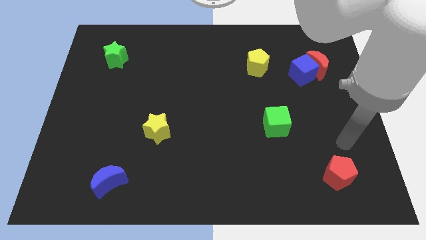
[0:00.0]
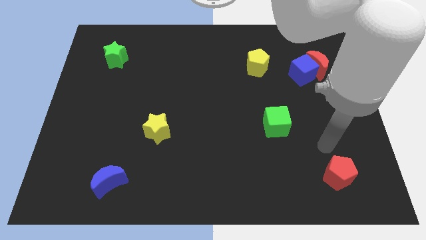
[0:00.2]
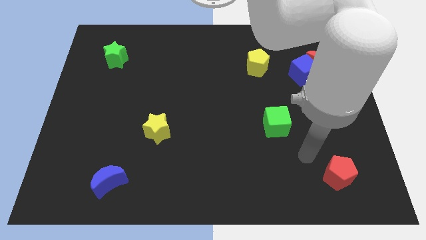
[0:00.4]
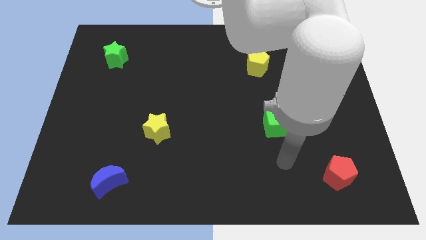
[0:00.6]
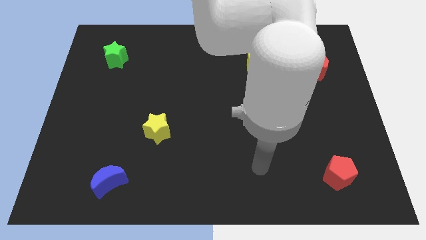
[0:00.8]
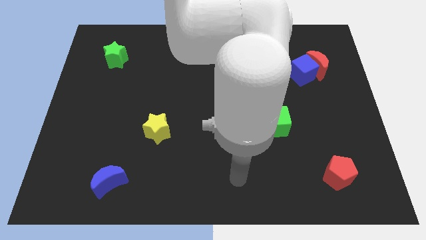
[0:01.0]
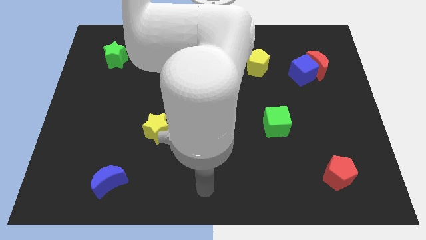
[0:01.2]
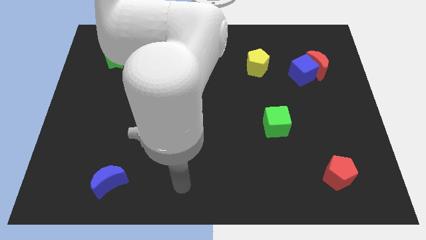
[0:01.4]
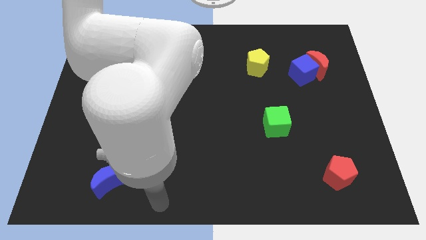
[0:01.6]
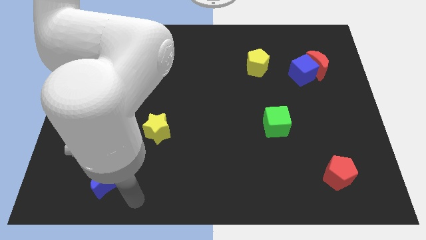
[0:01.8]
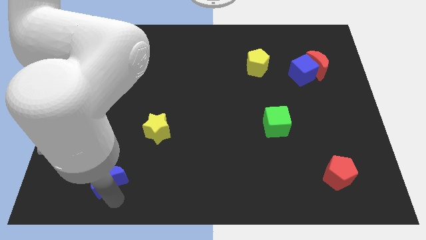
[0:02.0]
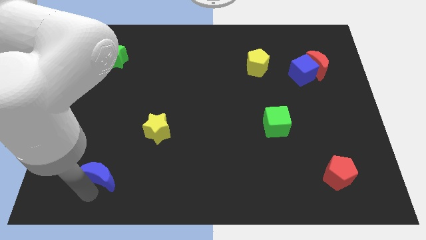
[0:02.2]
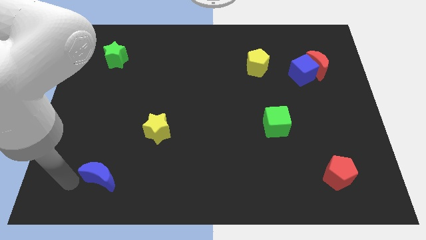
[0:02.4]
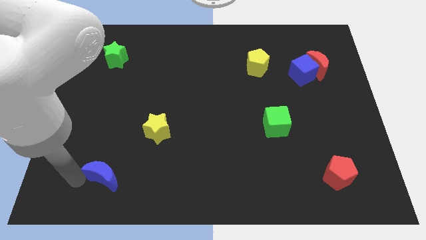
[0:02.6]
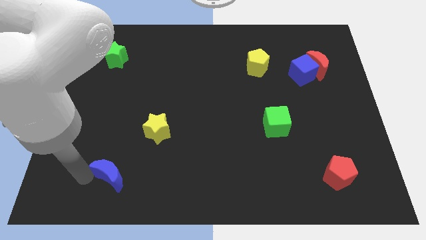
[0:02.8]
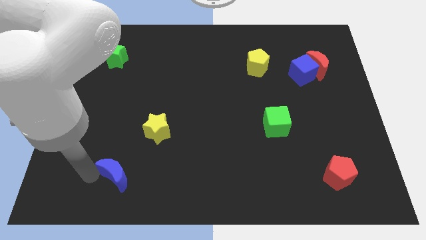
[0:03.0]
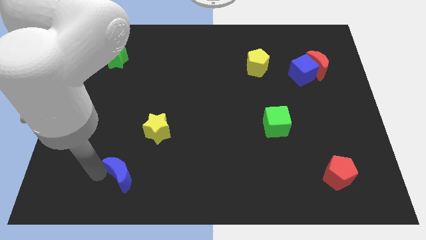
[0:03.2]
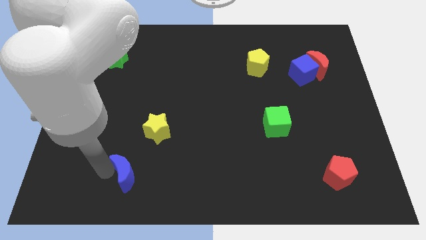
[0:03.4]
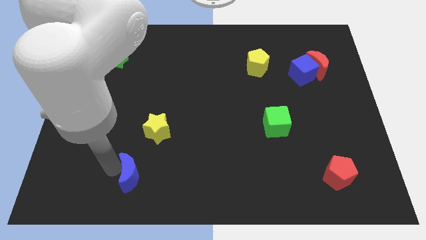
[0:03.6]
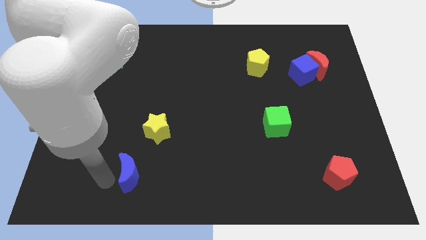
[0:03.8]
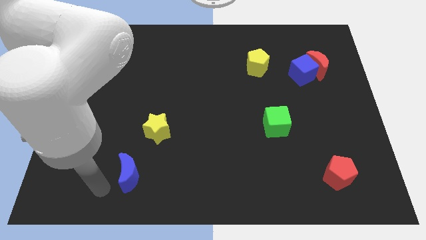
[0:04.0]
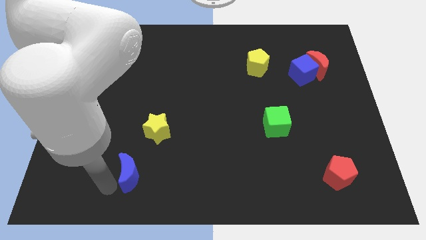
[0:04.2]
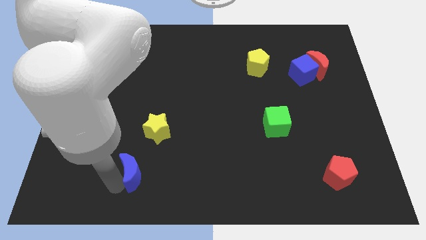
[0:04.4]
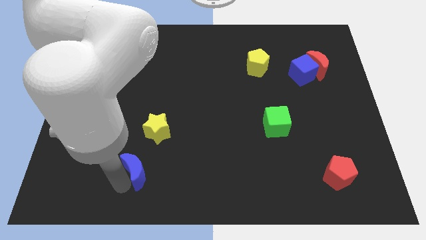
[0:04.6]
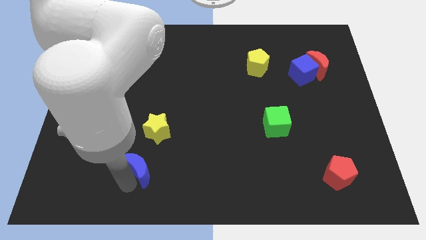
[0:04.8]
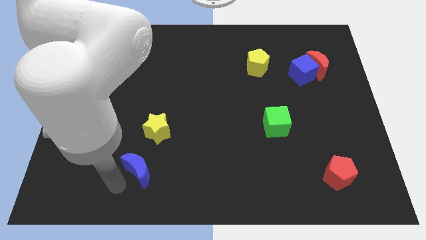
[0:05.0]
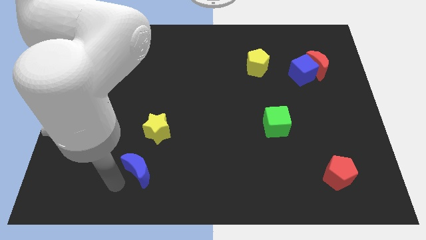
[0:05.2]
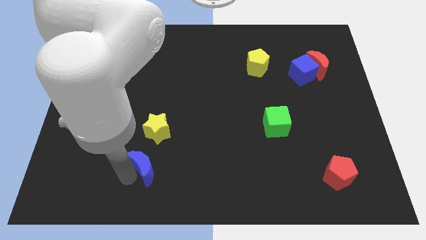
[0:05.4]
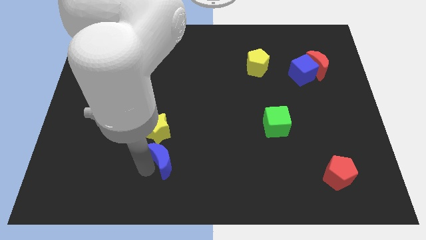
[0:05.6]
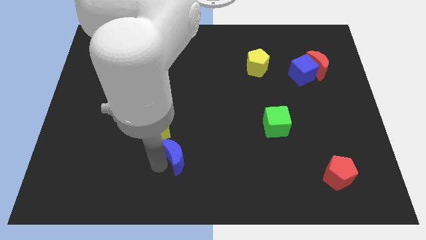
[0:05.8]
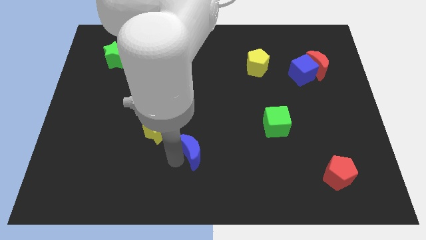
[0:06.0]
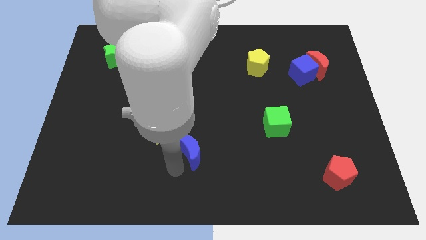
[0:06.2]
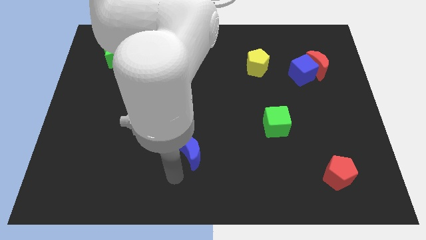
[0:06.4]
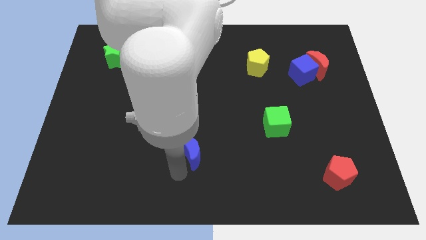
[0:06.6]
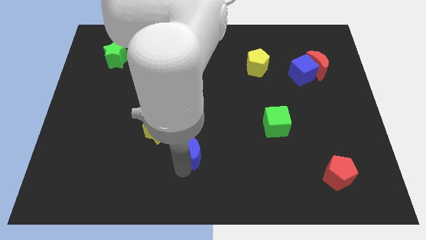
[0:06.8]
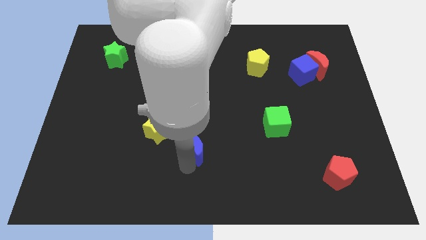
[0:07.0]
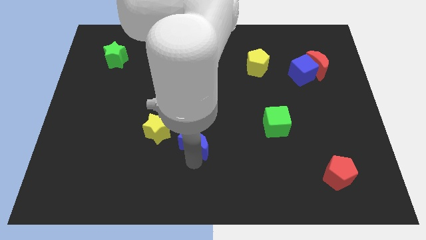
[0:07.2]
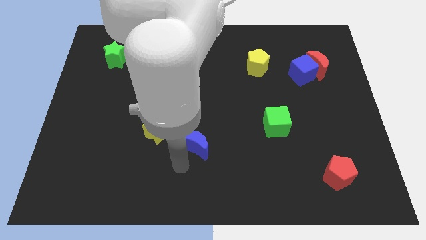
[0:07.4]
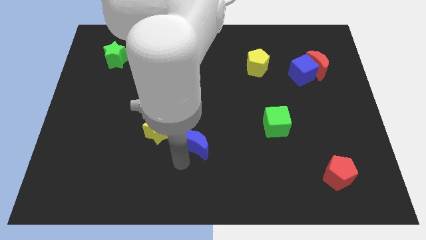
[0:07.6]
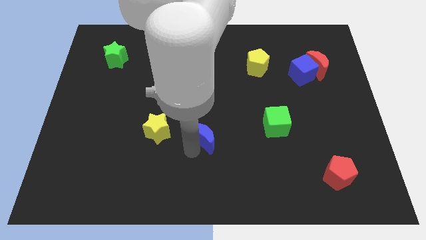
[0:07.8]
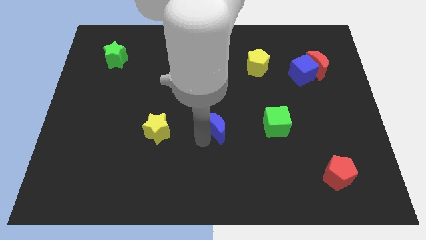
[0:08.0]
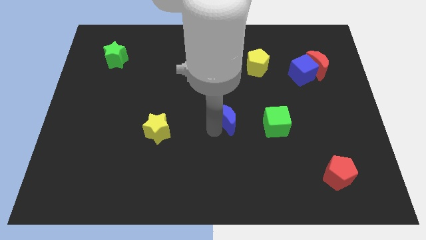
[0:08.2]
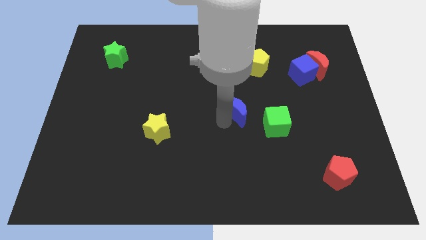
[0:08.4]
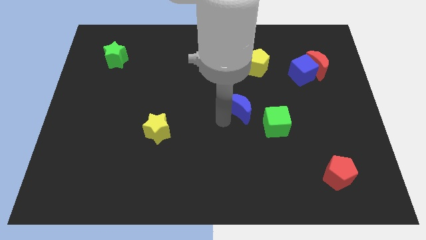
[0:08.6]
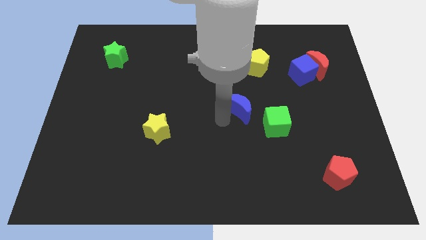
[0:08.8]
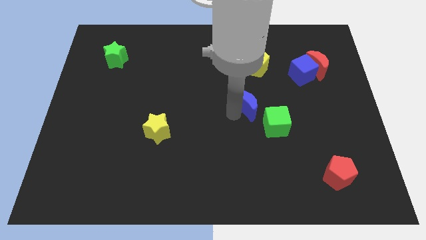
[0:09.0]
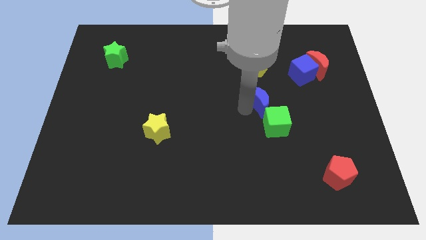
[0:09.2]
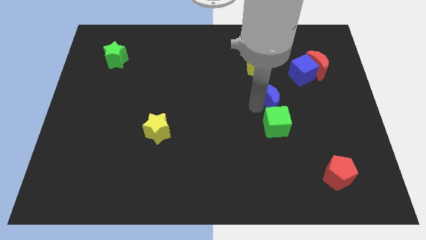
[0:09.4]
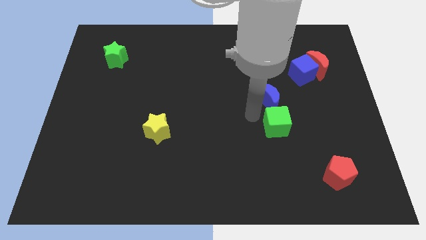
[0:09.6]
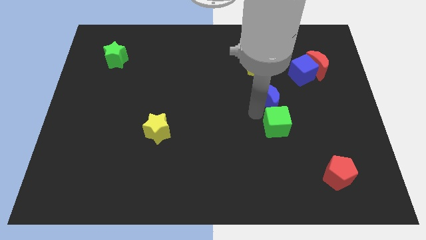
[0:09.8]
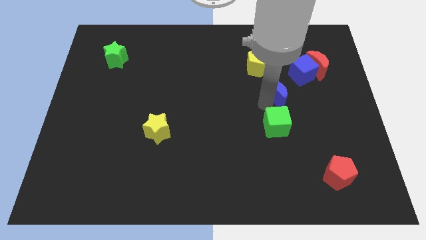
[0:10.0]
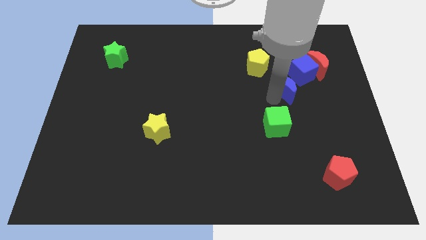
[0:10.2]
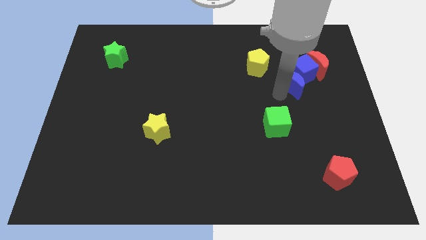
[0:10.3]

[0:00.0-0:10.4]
push the blue moon towards the blue cube

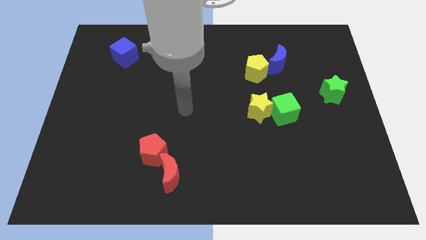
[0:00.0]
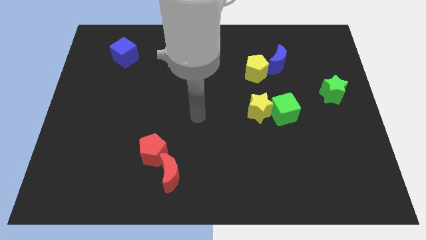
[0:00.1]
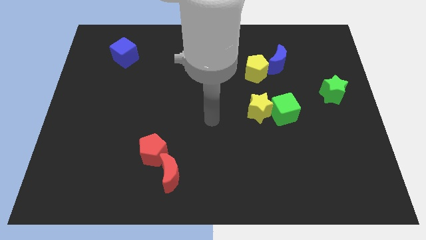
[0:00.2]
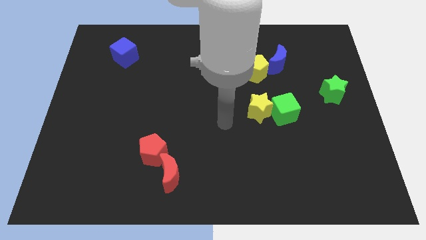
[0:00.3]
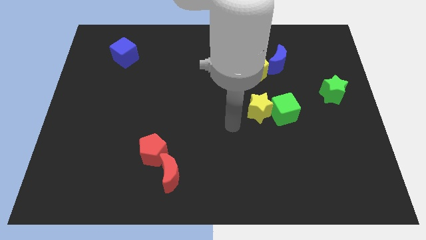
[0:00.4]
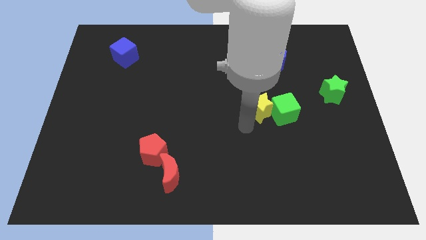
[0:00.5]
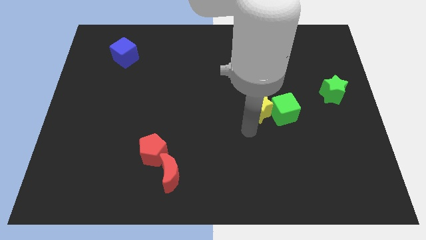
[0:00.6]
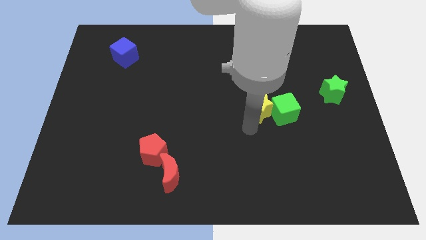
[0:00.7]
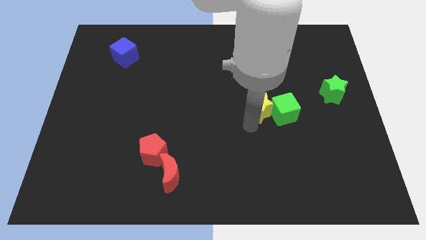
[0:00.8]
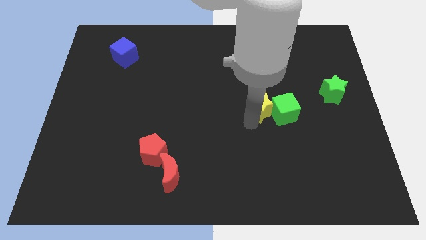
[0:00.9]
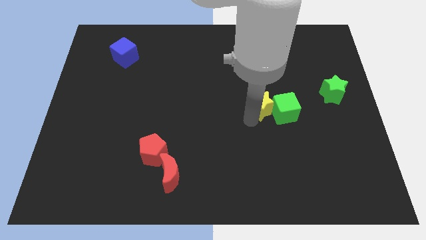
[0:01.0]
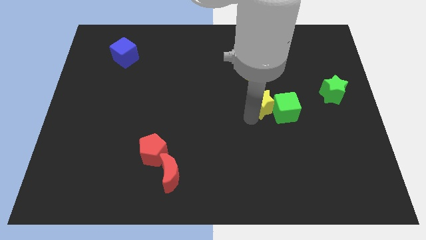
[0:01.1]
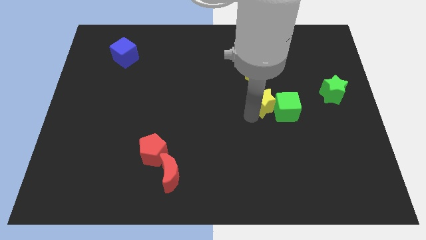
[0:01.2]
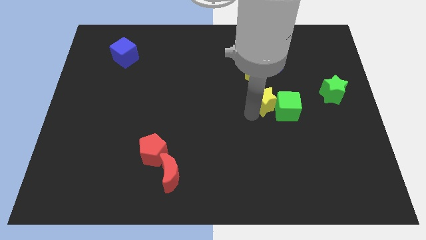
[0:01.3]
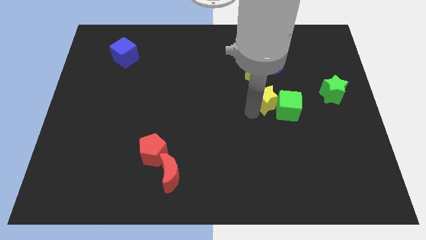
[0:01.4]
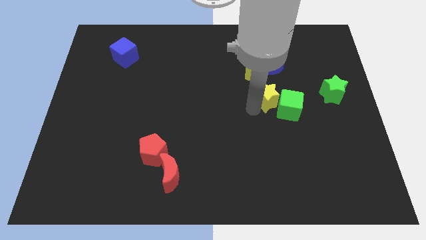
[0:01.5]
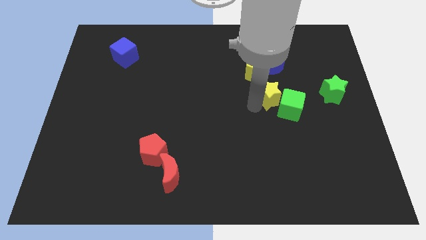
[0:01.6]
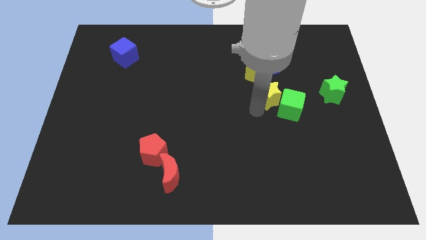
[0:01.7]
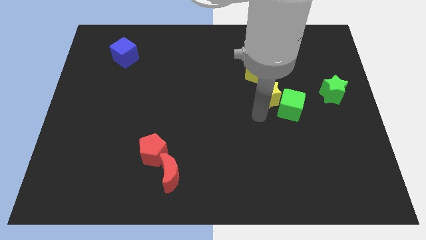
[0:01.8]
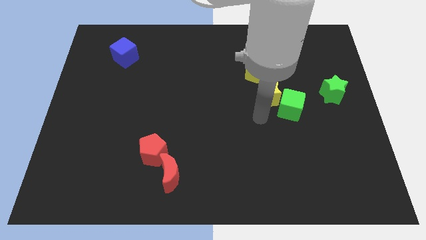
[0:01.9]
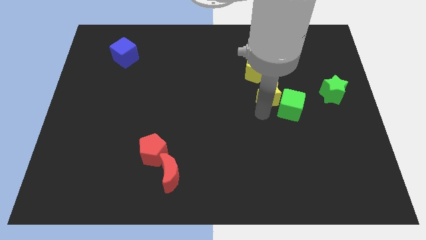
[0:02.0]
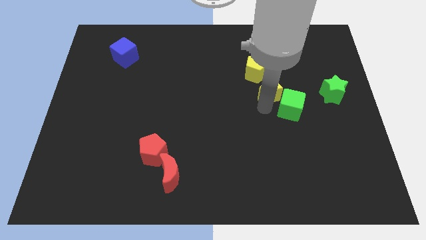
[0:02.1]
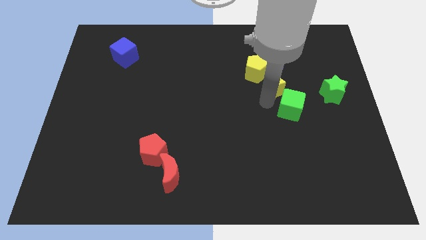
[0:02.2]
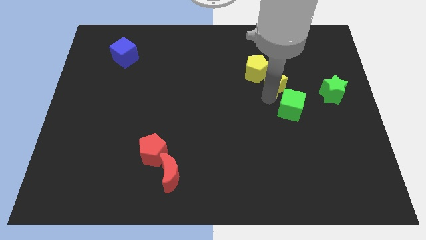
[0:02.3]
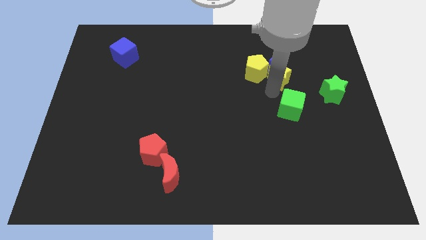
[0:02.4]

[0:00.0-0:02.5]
move the yellow star to the blue moon
